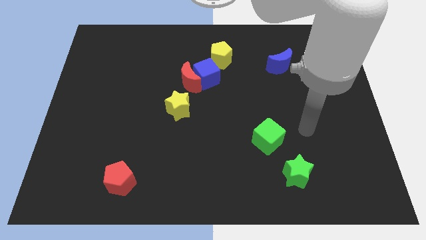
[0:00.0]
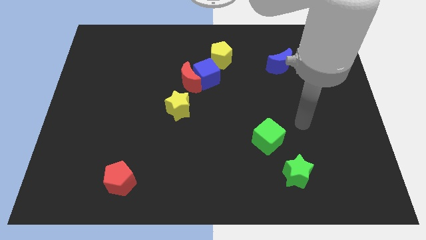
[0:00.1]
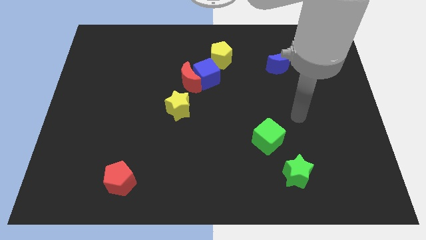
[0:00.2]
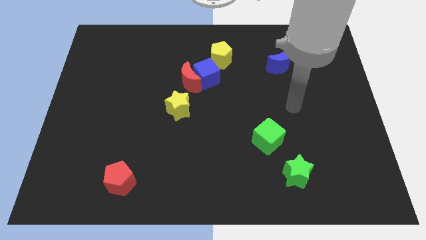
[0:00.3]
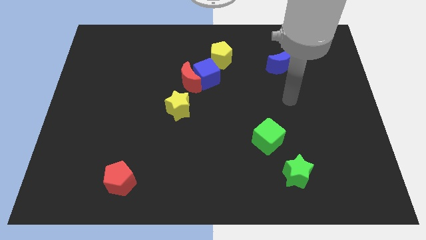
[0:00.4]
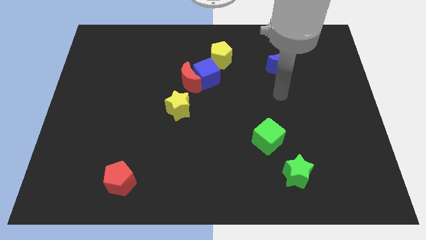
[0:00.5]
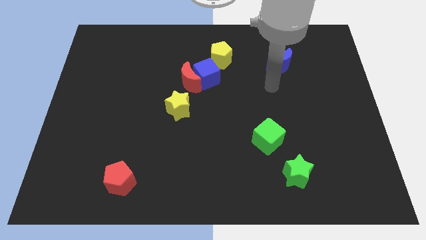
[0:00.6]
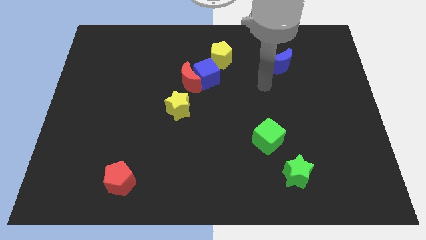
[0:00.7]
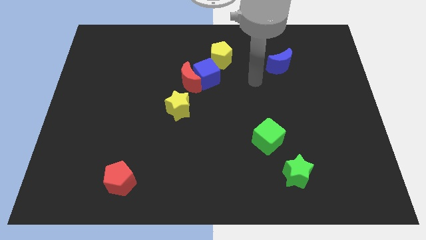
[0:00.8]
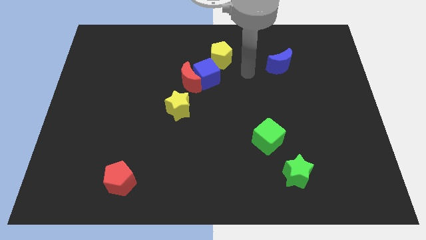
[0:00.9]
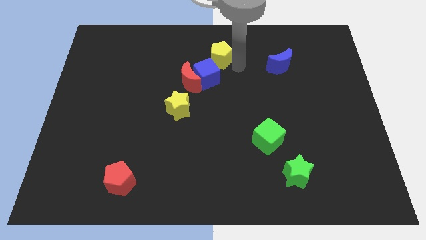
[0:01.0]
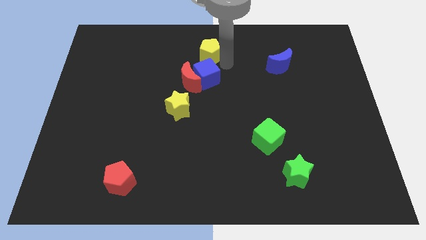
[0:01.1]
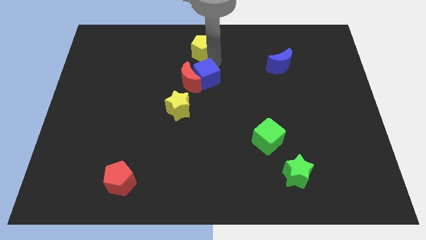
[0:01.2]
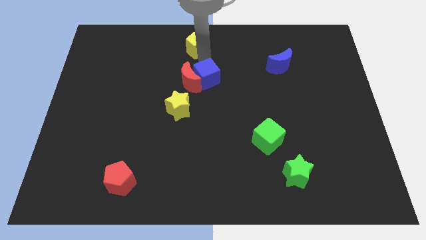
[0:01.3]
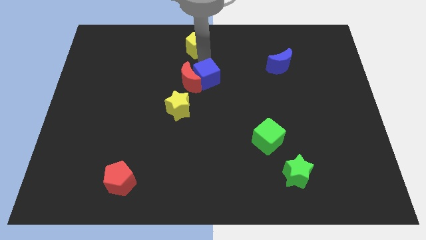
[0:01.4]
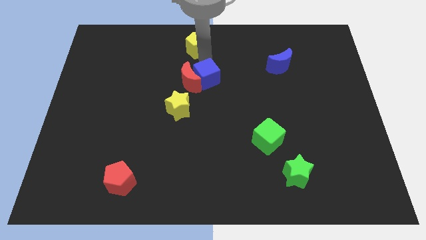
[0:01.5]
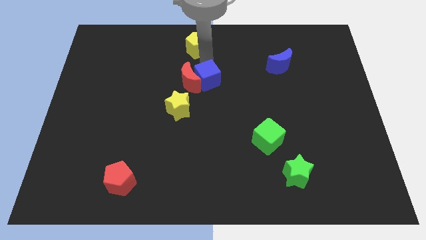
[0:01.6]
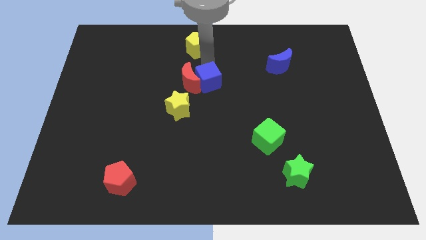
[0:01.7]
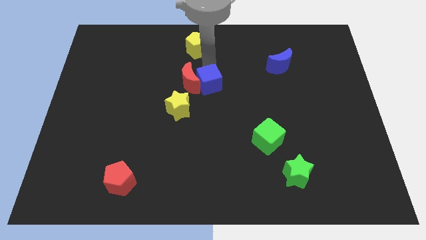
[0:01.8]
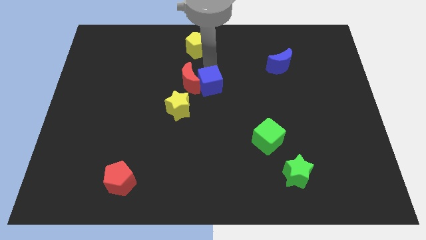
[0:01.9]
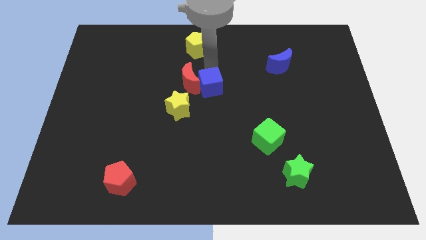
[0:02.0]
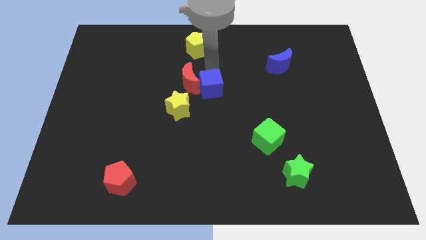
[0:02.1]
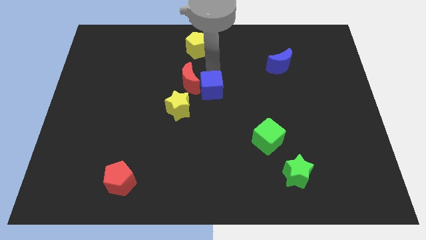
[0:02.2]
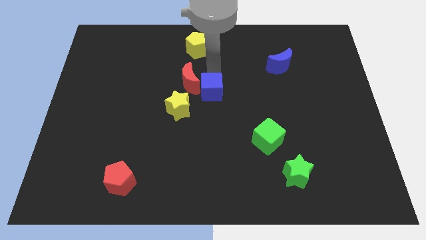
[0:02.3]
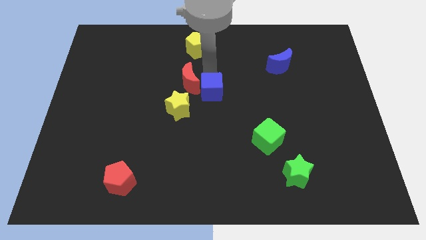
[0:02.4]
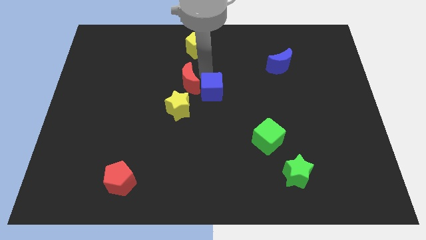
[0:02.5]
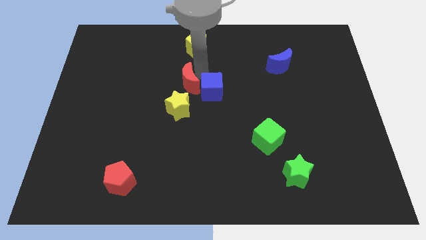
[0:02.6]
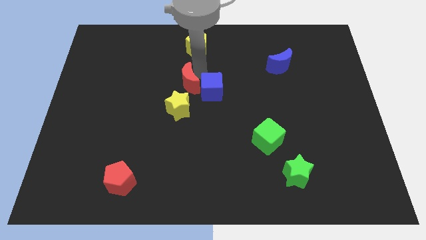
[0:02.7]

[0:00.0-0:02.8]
separate the blue cube from the red moon and yellow pentagon

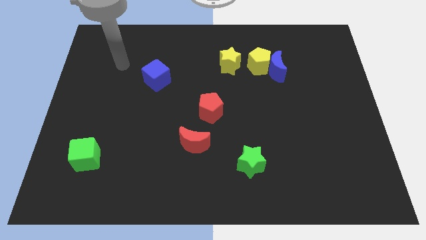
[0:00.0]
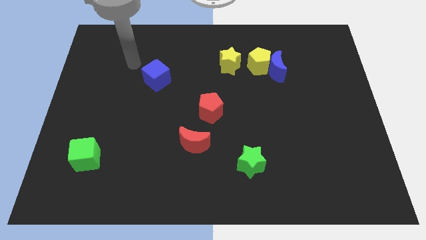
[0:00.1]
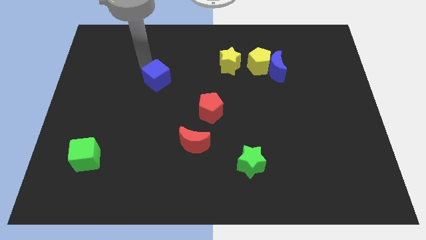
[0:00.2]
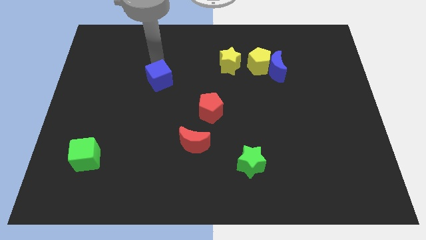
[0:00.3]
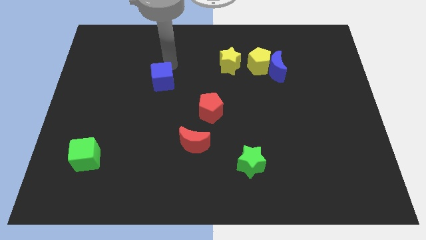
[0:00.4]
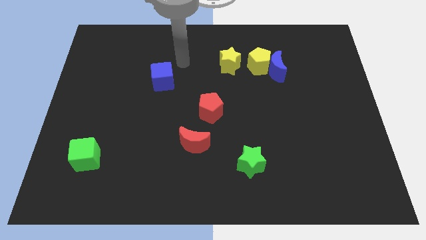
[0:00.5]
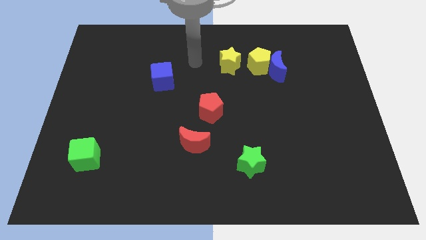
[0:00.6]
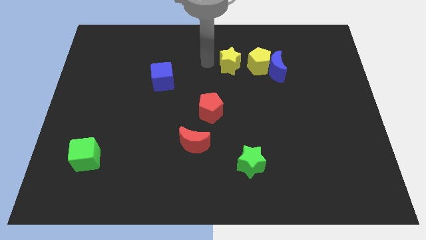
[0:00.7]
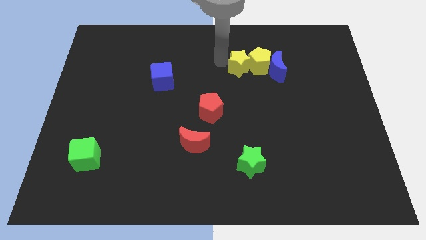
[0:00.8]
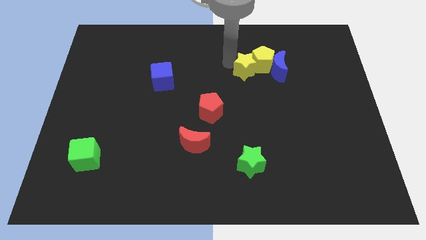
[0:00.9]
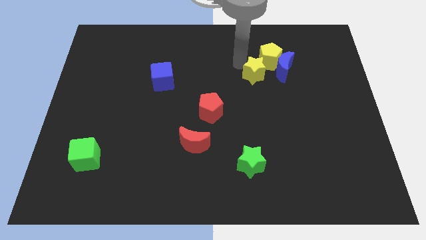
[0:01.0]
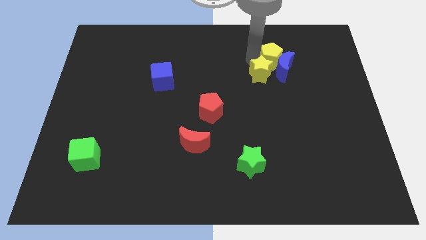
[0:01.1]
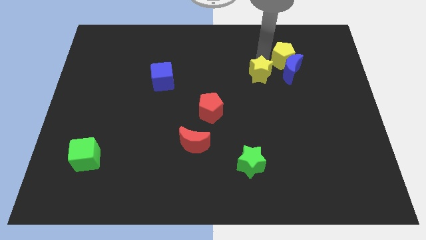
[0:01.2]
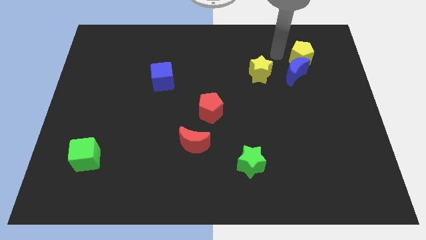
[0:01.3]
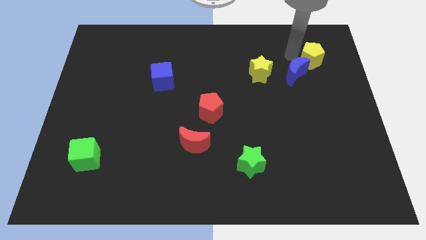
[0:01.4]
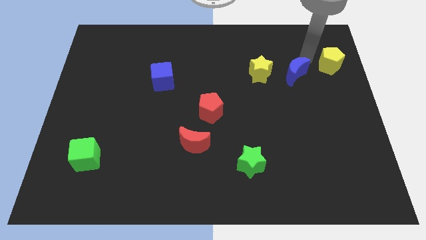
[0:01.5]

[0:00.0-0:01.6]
move the blue moon away from the yellow pentagon

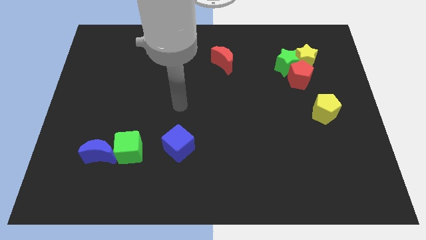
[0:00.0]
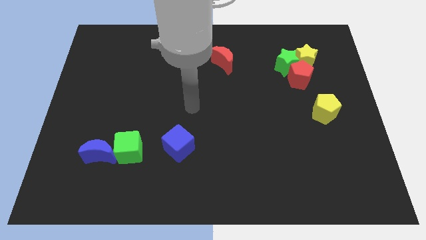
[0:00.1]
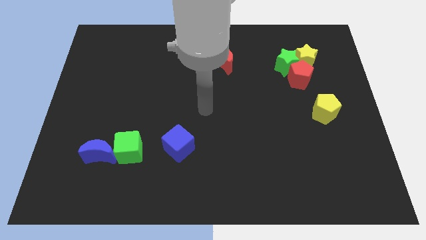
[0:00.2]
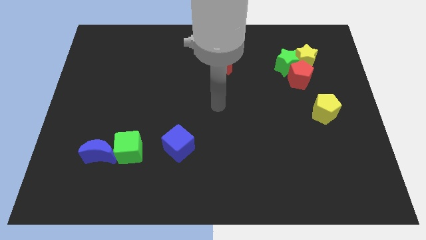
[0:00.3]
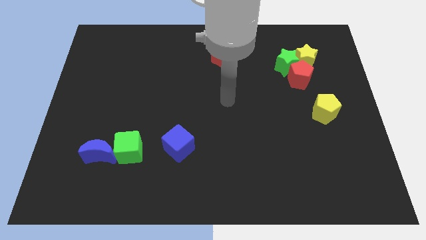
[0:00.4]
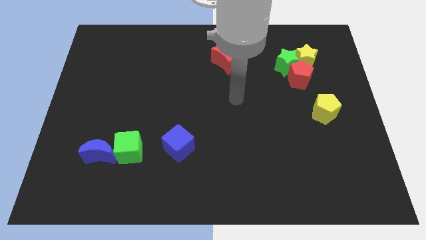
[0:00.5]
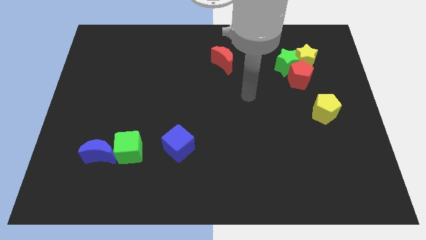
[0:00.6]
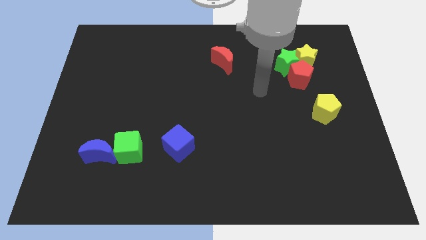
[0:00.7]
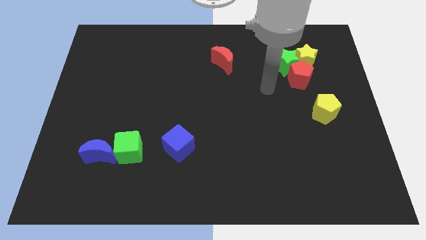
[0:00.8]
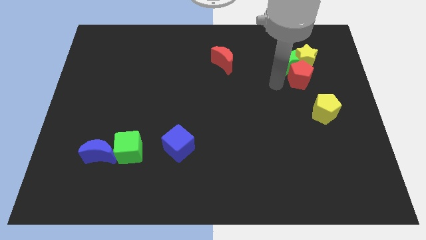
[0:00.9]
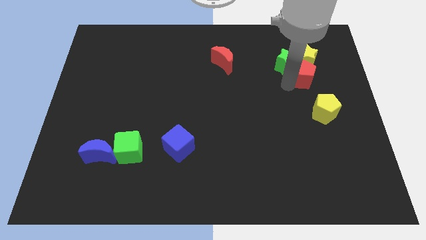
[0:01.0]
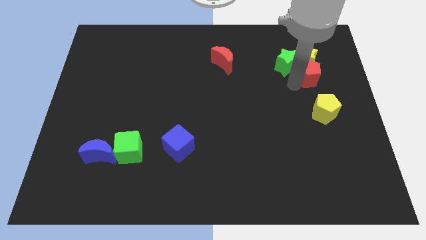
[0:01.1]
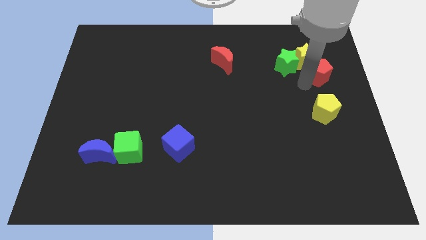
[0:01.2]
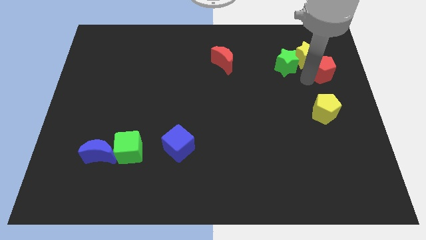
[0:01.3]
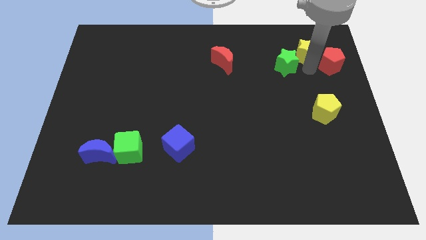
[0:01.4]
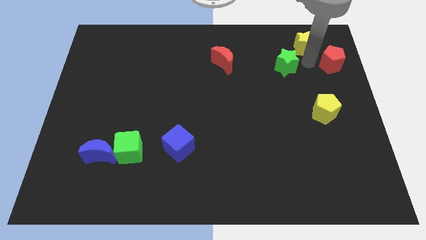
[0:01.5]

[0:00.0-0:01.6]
separate the green star from the yellow star and red pentagon

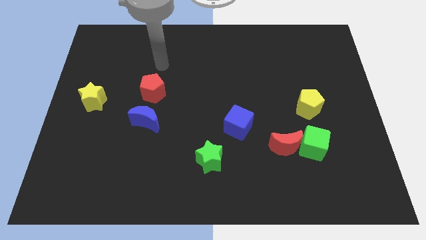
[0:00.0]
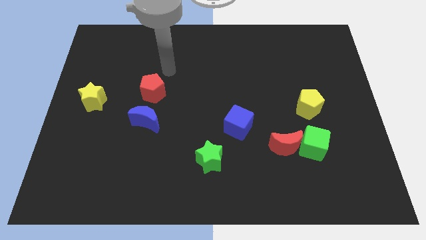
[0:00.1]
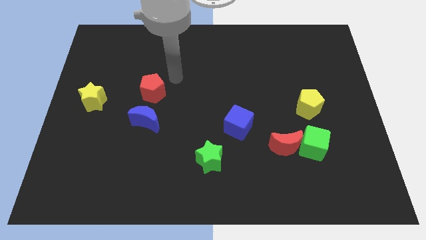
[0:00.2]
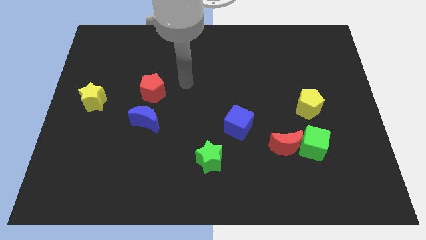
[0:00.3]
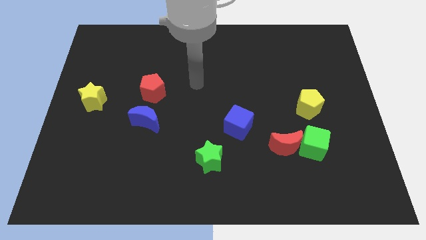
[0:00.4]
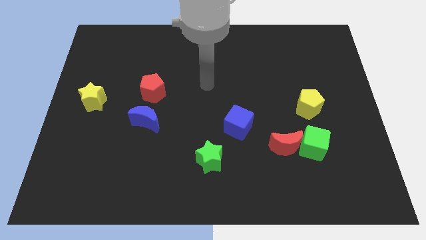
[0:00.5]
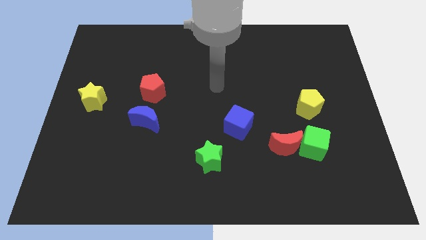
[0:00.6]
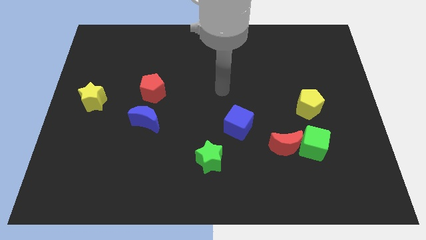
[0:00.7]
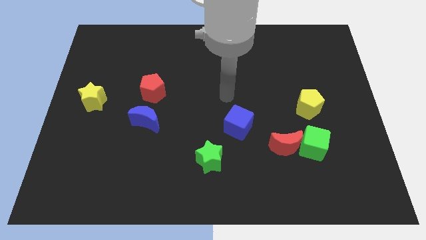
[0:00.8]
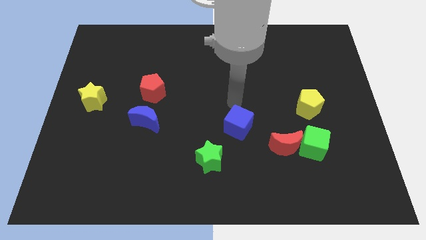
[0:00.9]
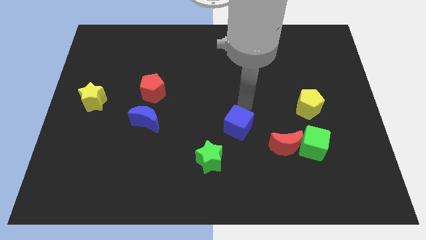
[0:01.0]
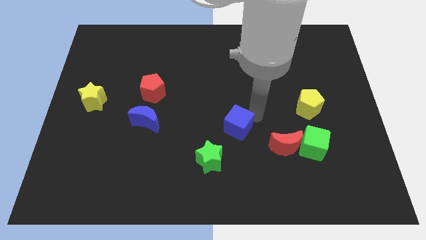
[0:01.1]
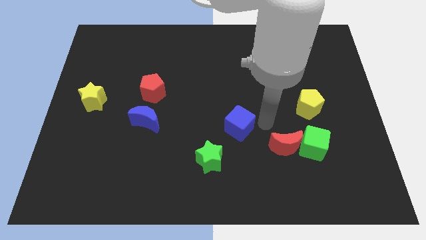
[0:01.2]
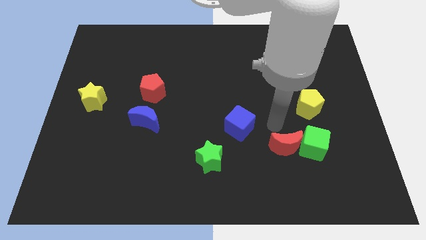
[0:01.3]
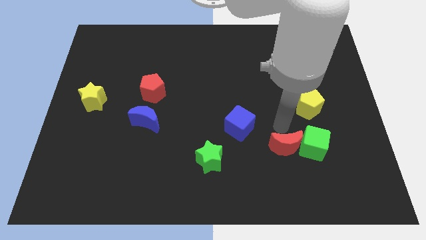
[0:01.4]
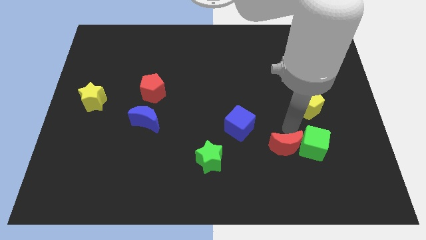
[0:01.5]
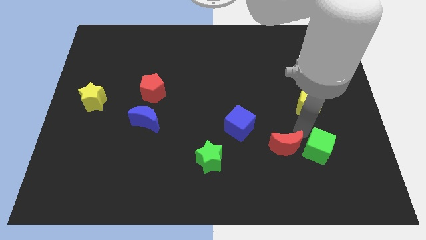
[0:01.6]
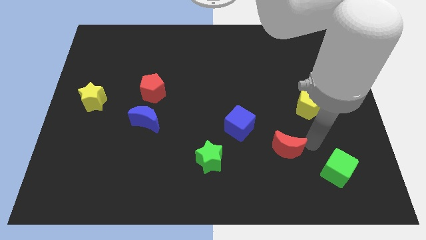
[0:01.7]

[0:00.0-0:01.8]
separate the red moon from the green cube

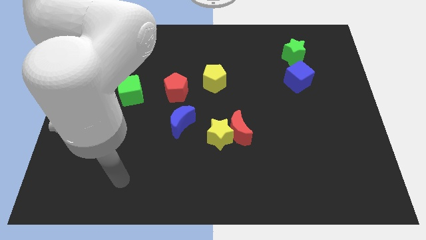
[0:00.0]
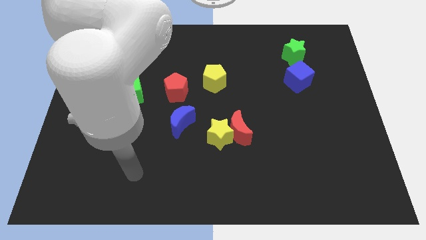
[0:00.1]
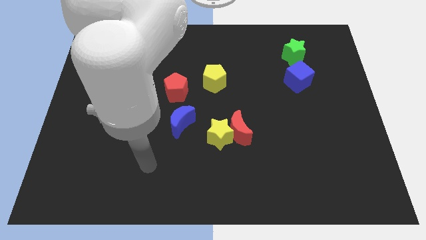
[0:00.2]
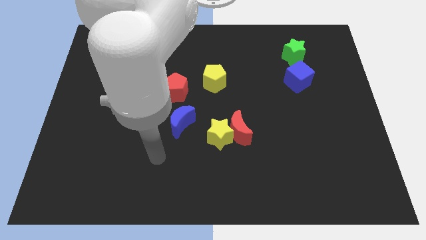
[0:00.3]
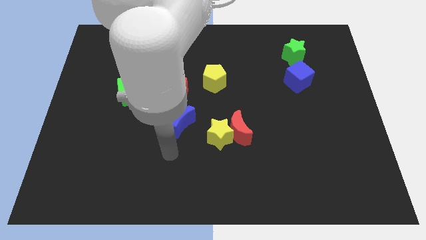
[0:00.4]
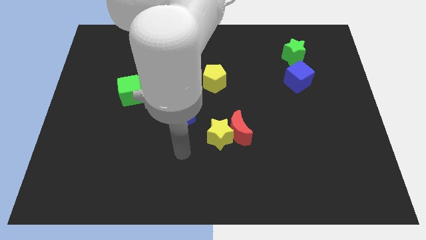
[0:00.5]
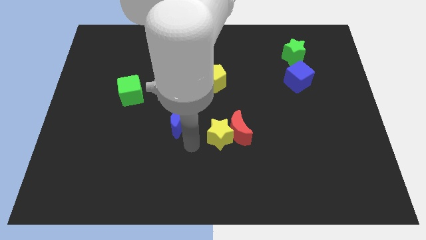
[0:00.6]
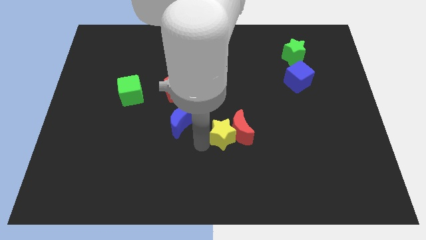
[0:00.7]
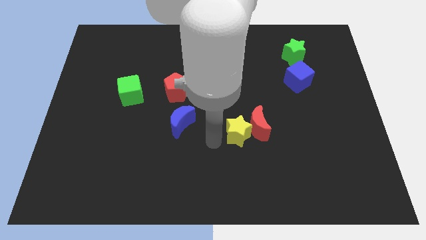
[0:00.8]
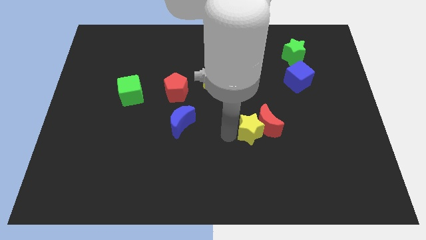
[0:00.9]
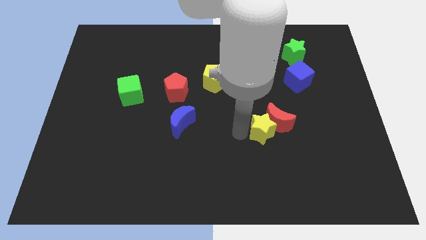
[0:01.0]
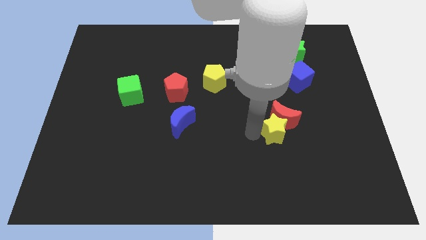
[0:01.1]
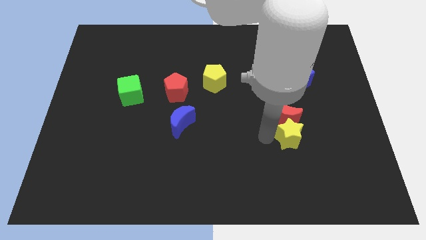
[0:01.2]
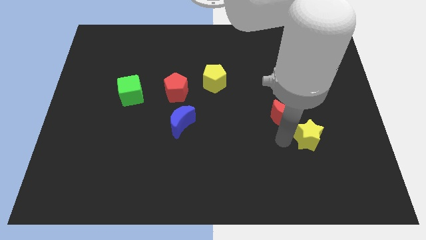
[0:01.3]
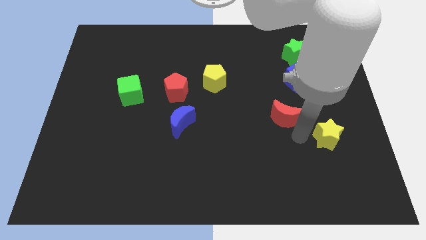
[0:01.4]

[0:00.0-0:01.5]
move the red moon away from the yellow star

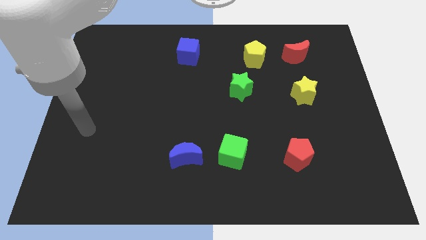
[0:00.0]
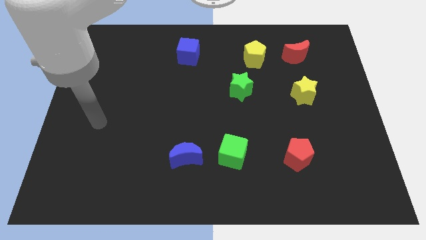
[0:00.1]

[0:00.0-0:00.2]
move the blue moon away from the green cube
